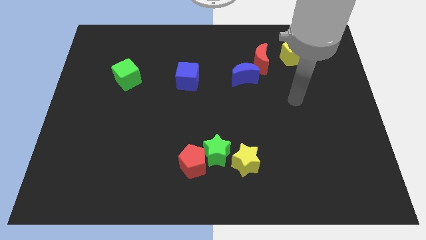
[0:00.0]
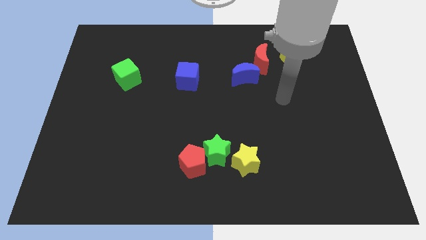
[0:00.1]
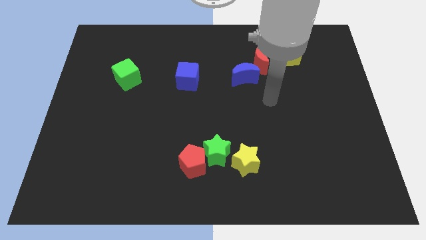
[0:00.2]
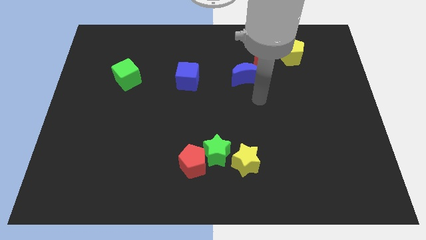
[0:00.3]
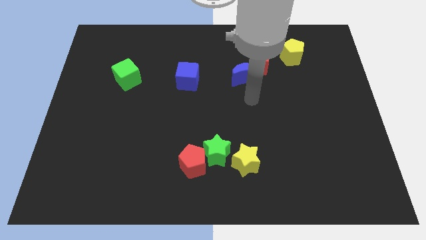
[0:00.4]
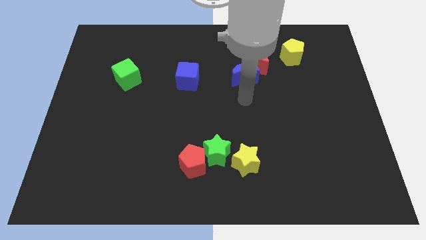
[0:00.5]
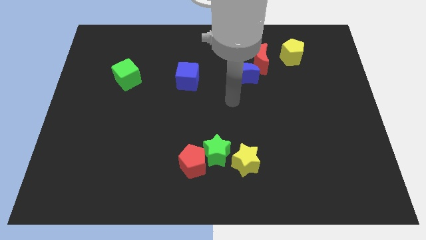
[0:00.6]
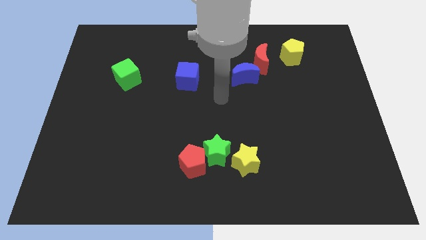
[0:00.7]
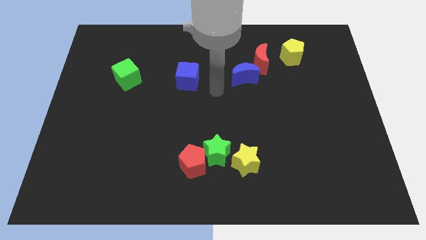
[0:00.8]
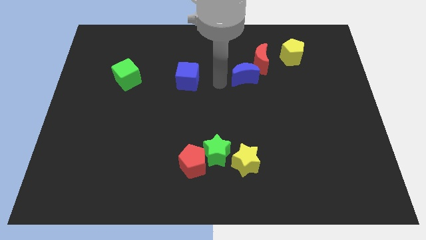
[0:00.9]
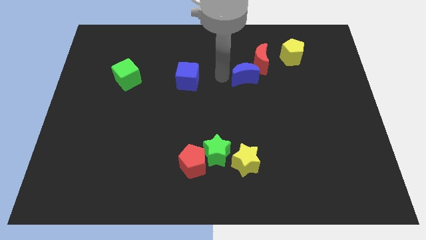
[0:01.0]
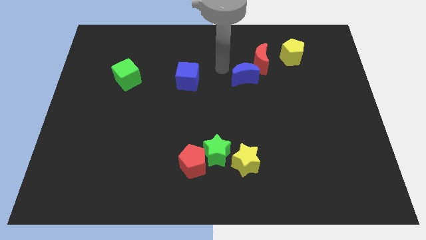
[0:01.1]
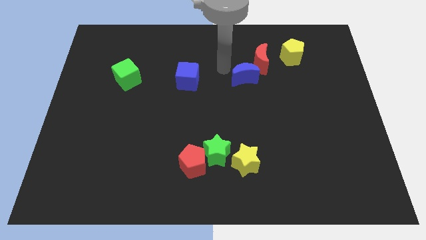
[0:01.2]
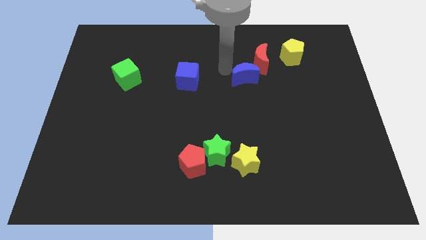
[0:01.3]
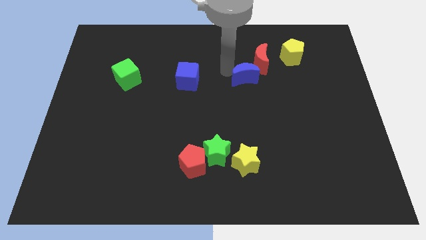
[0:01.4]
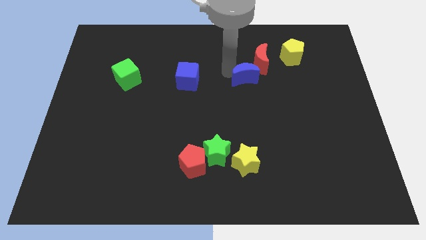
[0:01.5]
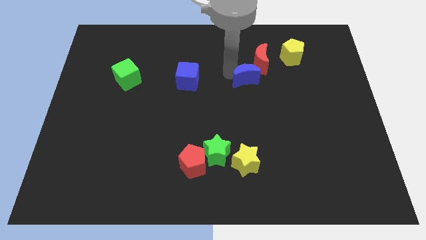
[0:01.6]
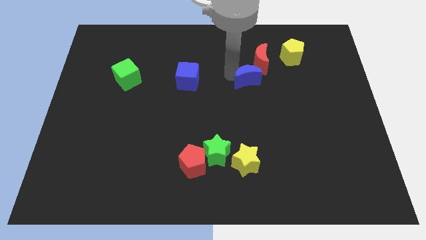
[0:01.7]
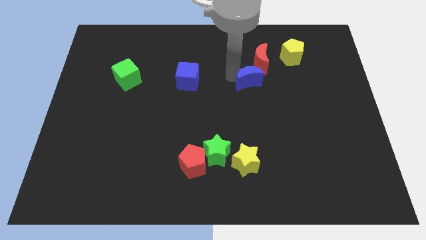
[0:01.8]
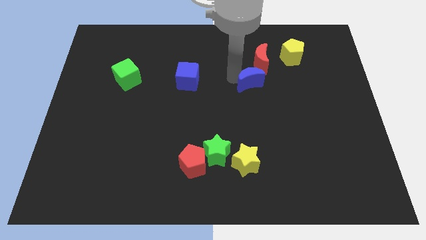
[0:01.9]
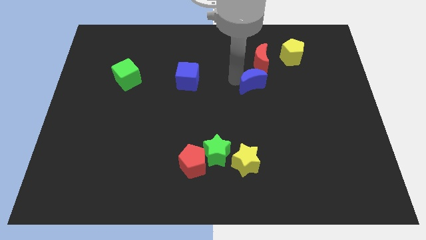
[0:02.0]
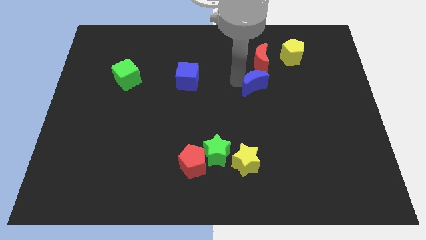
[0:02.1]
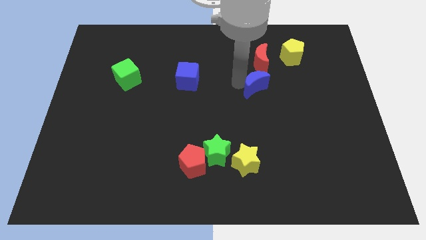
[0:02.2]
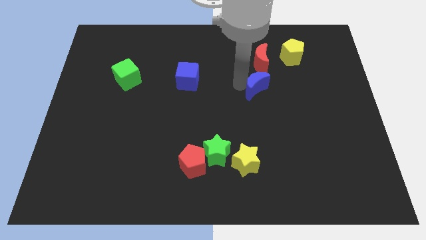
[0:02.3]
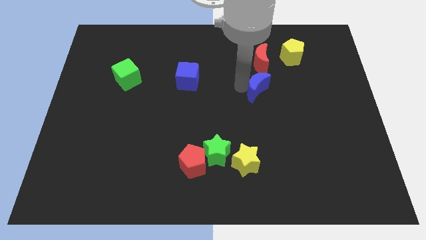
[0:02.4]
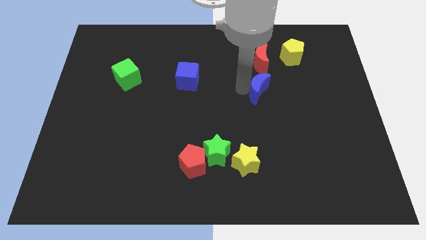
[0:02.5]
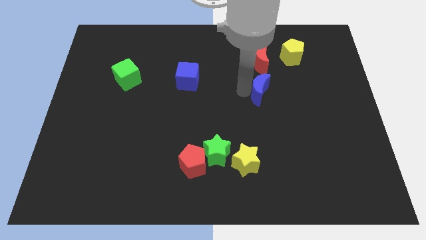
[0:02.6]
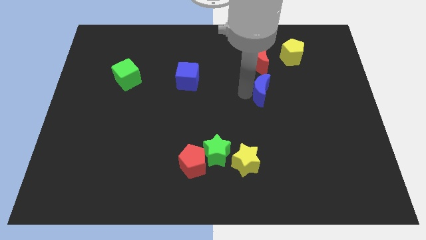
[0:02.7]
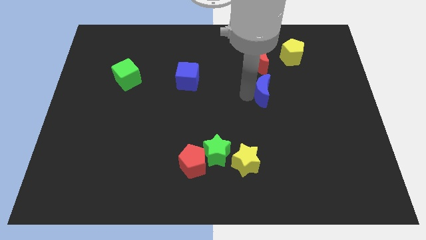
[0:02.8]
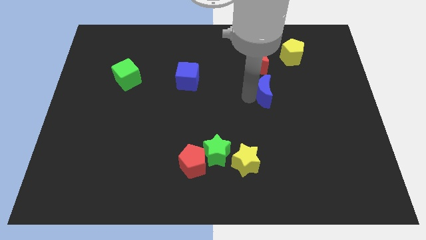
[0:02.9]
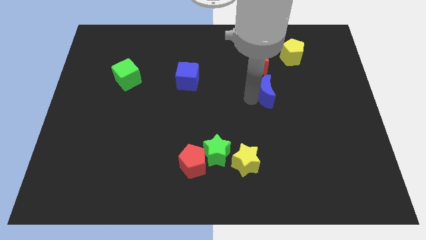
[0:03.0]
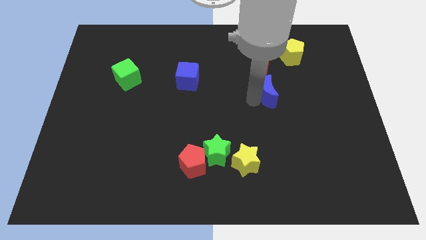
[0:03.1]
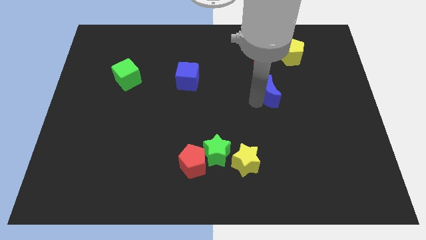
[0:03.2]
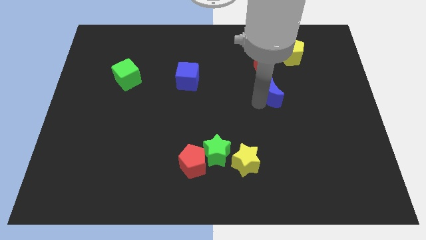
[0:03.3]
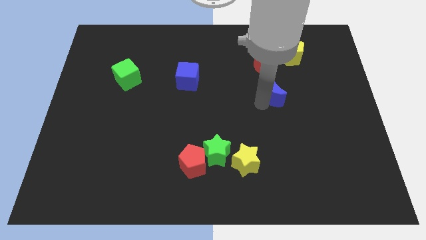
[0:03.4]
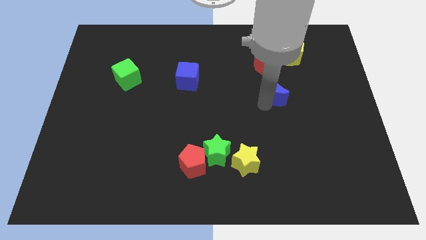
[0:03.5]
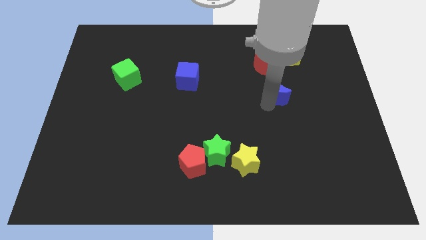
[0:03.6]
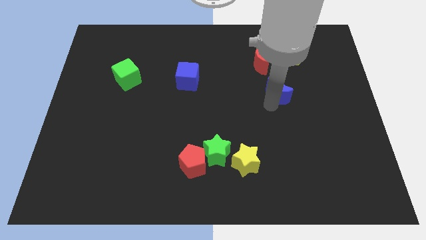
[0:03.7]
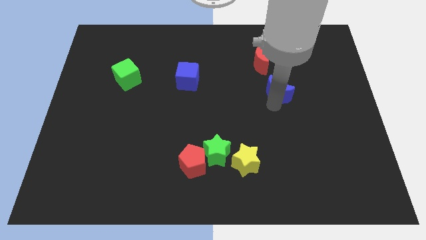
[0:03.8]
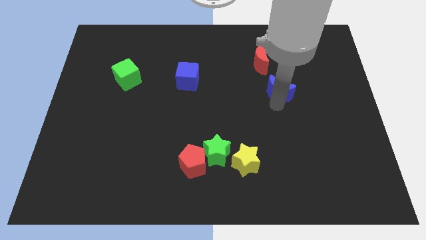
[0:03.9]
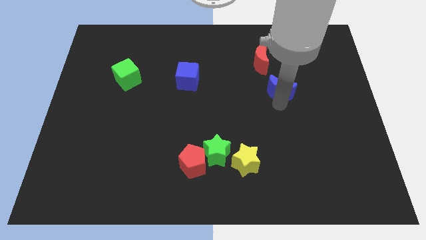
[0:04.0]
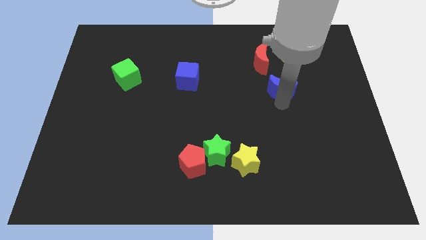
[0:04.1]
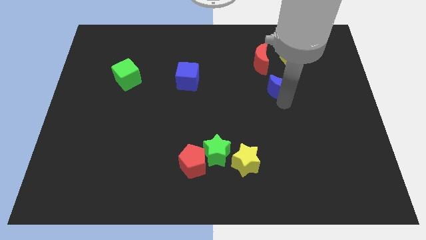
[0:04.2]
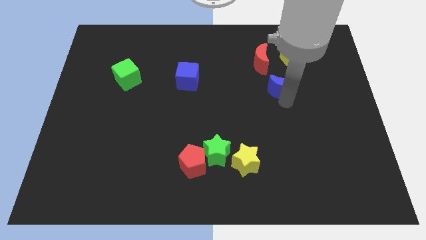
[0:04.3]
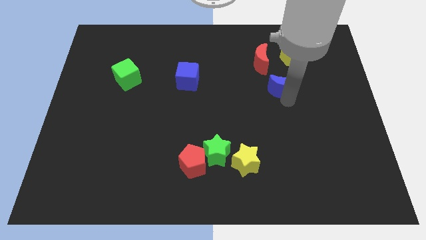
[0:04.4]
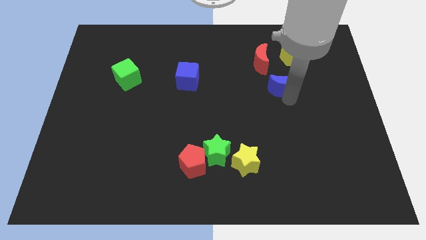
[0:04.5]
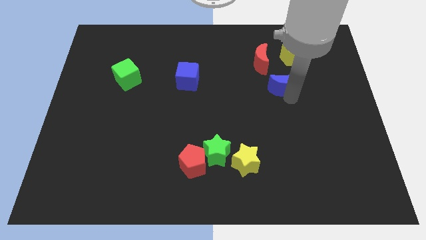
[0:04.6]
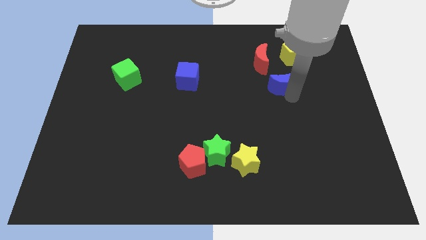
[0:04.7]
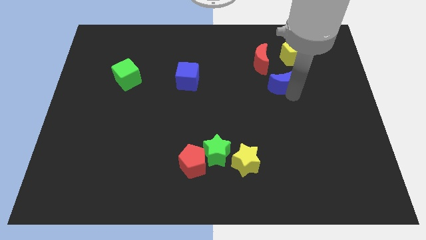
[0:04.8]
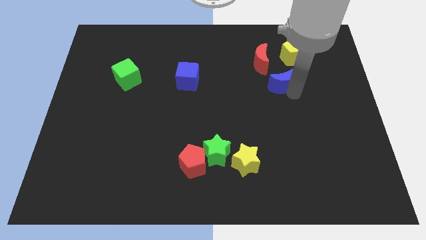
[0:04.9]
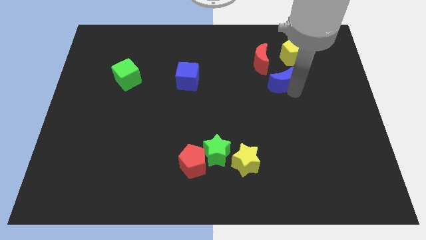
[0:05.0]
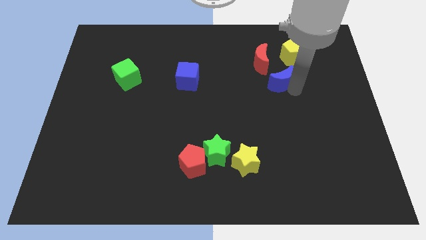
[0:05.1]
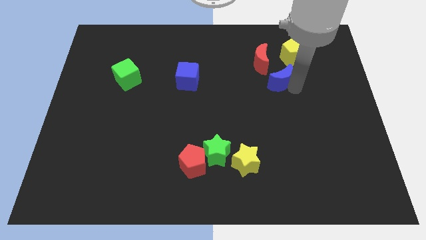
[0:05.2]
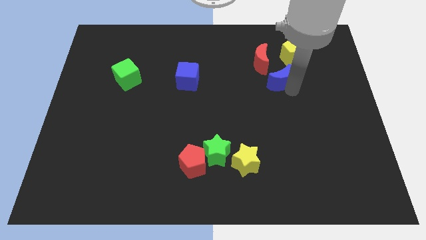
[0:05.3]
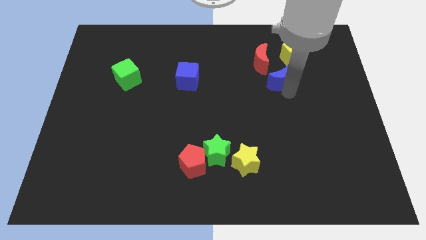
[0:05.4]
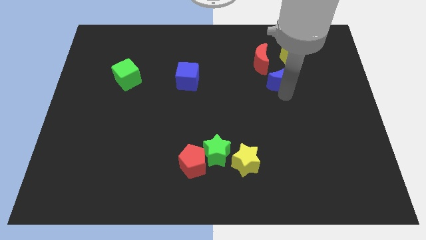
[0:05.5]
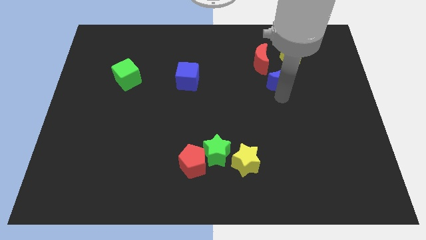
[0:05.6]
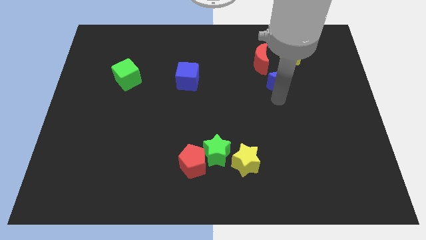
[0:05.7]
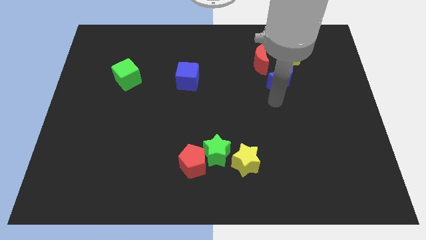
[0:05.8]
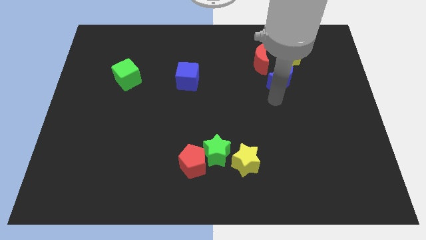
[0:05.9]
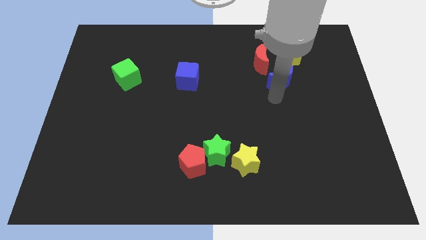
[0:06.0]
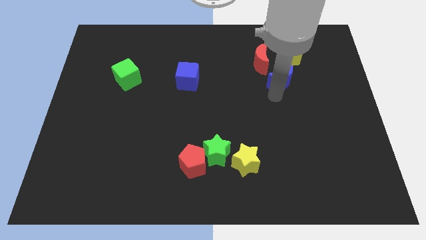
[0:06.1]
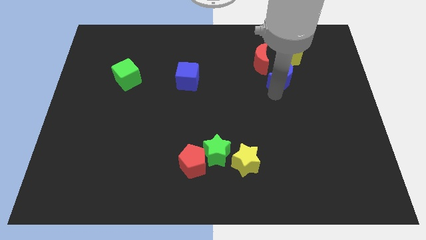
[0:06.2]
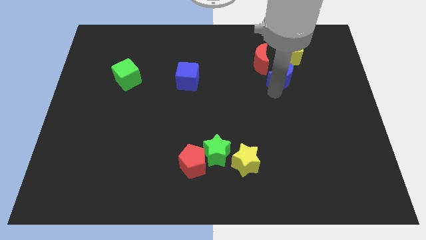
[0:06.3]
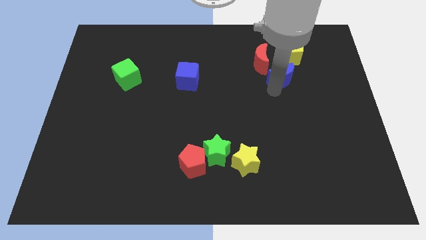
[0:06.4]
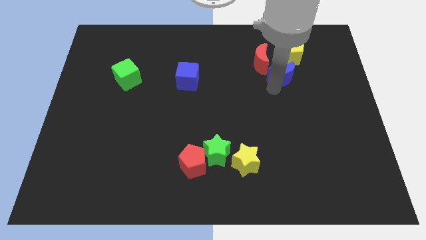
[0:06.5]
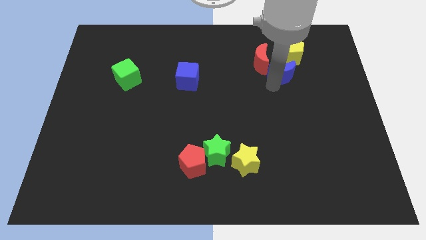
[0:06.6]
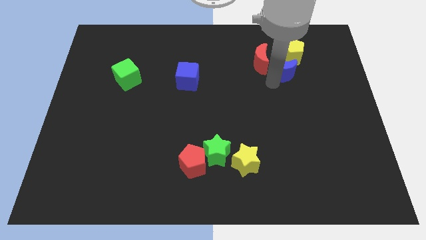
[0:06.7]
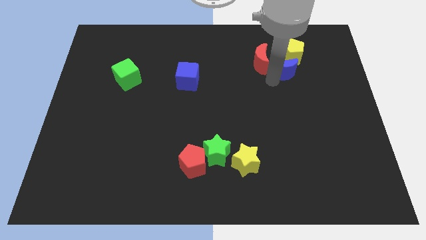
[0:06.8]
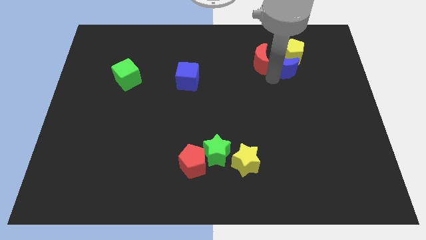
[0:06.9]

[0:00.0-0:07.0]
push the blue moon next to the yellow pentagon
